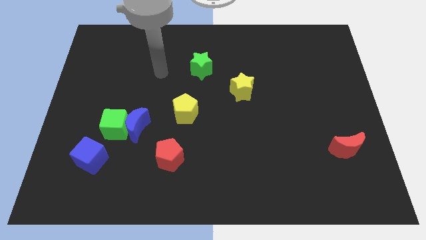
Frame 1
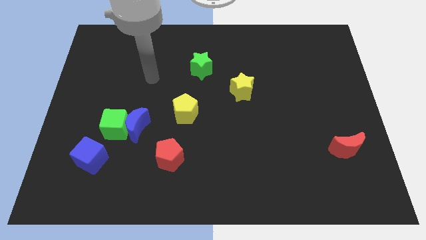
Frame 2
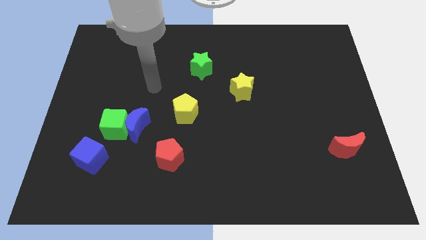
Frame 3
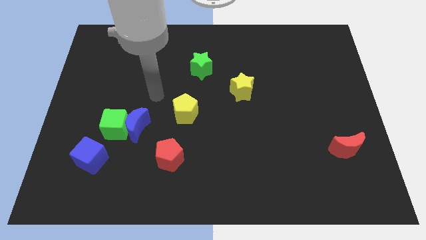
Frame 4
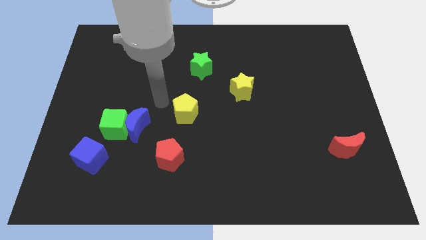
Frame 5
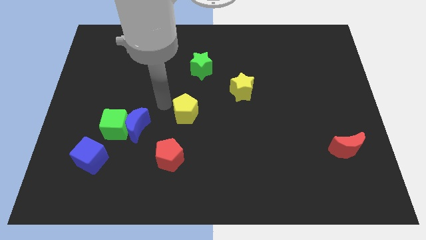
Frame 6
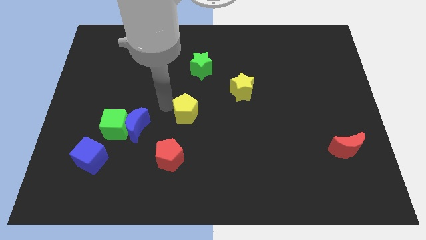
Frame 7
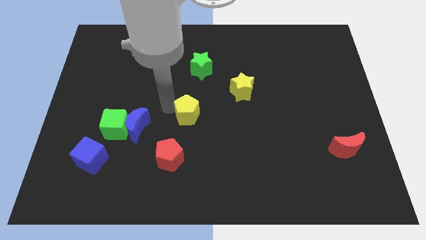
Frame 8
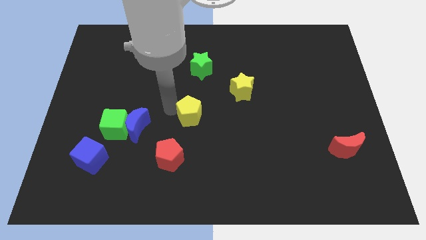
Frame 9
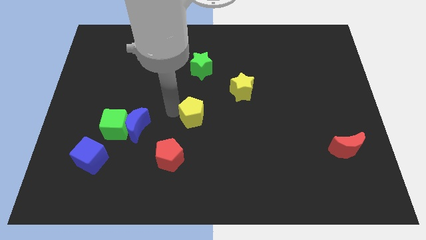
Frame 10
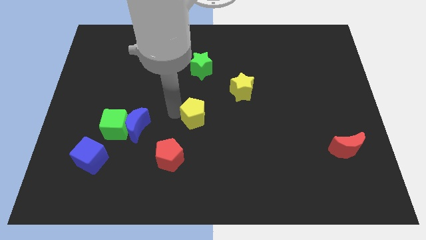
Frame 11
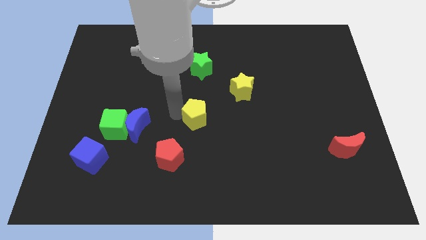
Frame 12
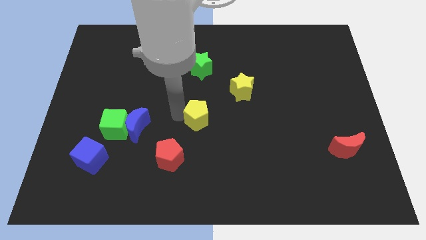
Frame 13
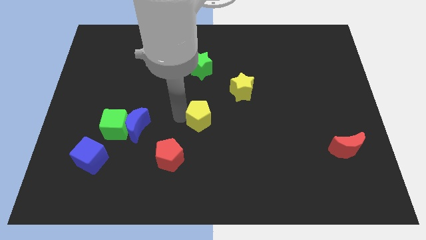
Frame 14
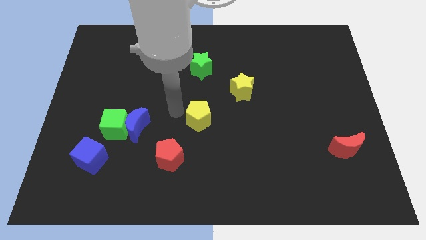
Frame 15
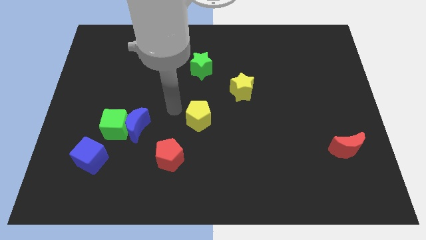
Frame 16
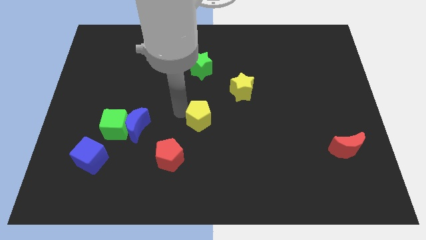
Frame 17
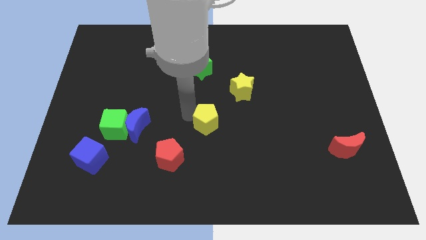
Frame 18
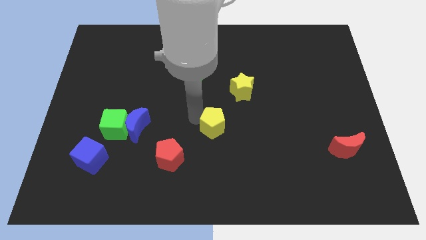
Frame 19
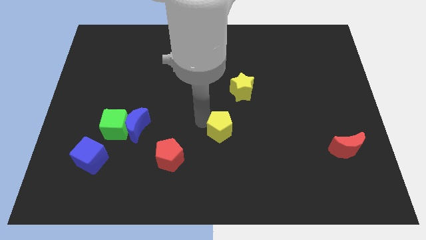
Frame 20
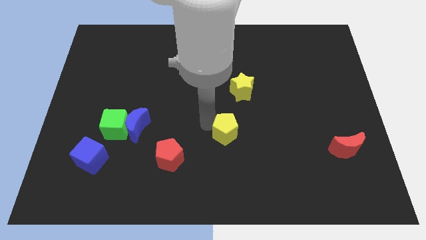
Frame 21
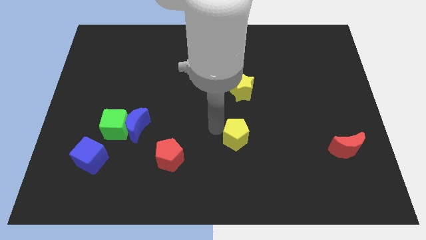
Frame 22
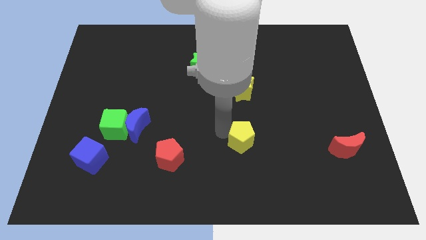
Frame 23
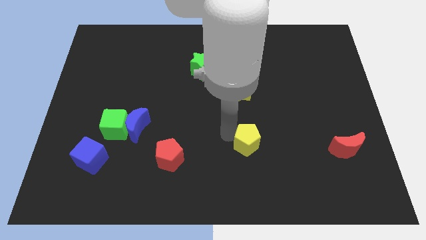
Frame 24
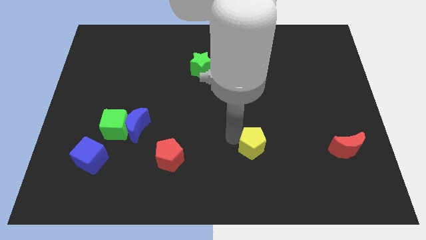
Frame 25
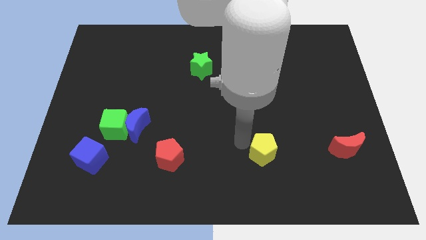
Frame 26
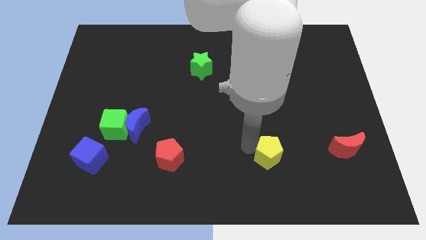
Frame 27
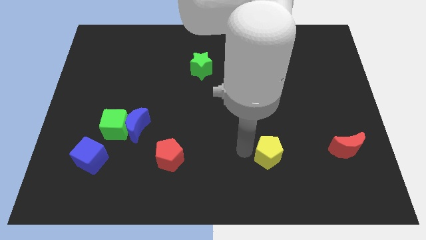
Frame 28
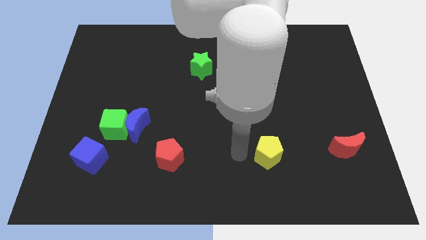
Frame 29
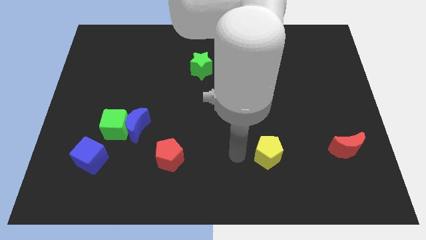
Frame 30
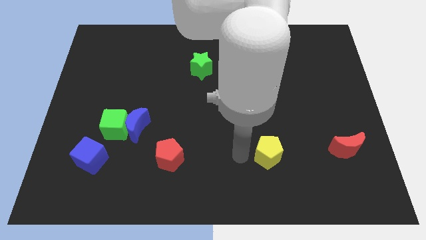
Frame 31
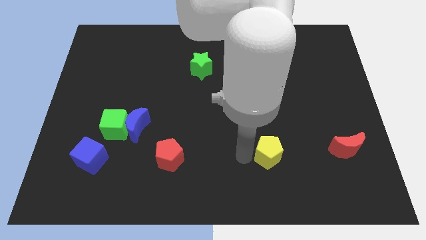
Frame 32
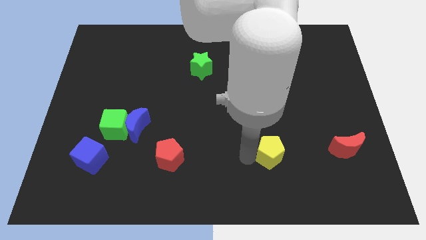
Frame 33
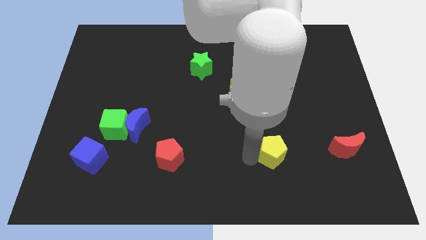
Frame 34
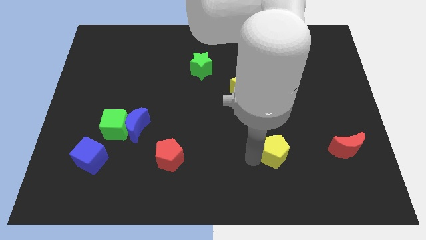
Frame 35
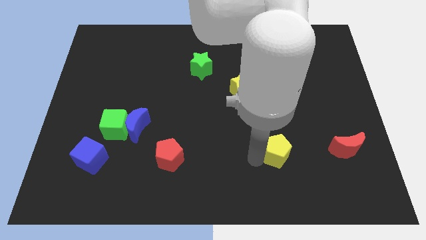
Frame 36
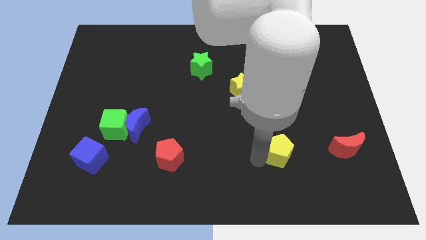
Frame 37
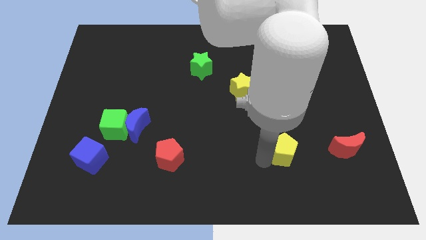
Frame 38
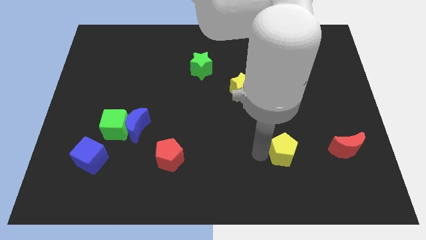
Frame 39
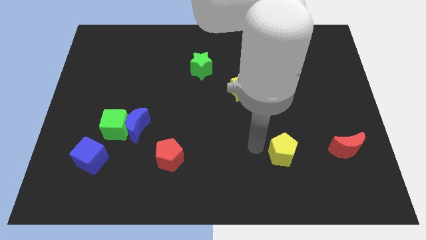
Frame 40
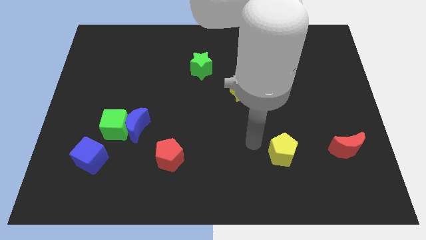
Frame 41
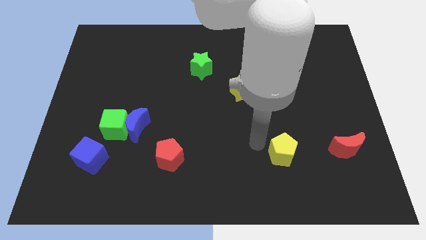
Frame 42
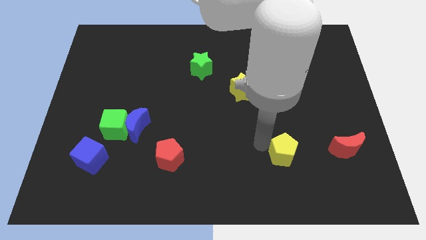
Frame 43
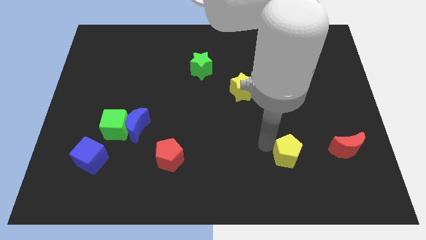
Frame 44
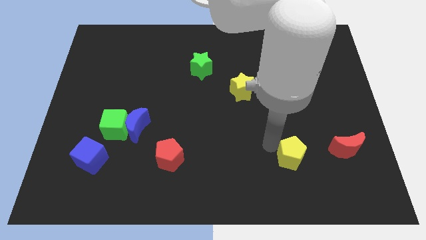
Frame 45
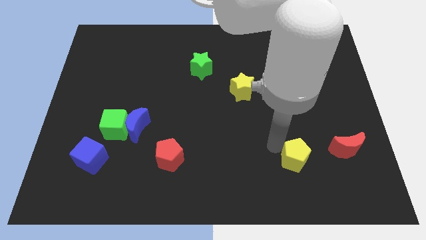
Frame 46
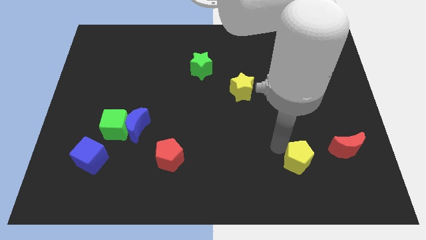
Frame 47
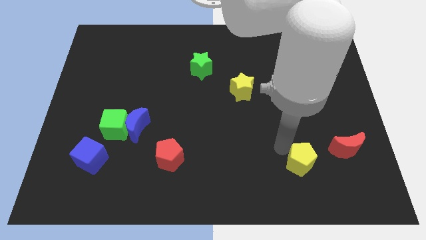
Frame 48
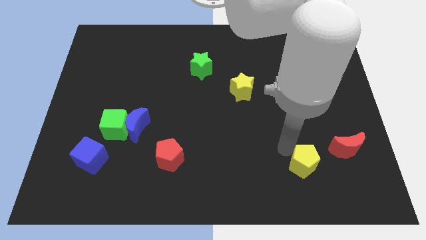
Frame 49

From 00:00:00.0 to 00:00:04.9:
move the yellow pentagon to the bottom left of the red moon

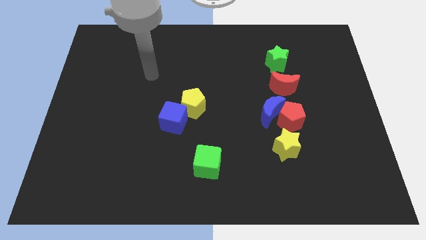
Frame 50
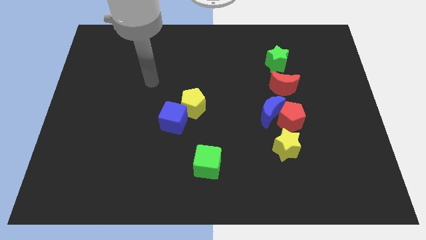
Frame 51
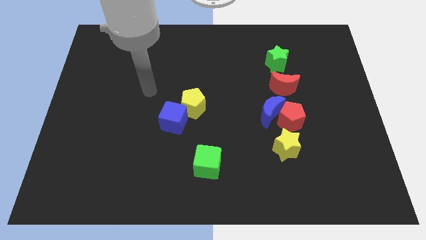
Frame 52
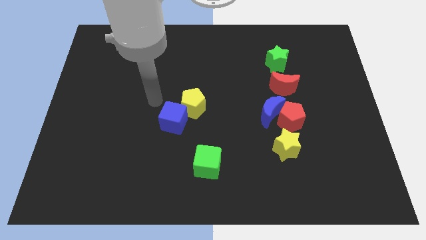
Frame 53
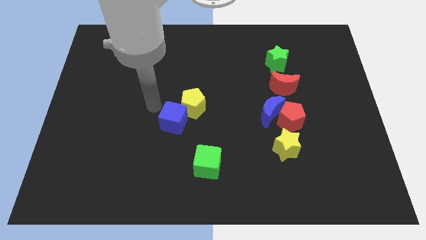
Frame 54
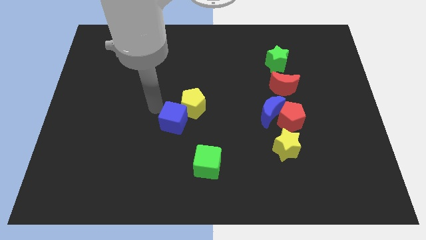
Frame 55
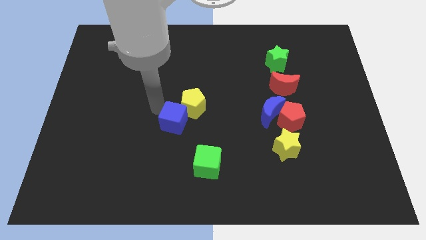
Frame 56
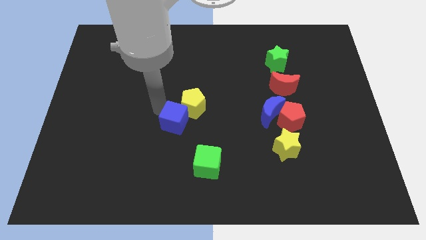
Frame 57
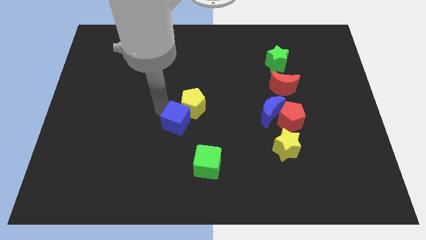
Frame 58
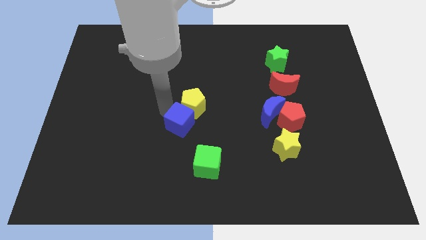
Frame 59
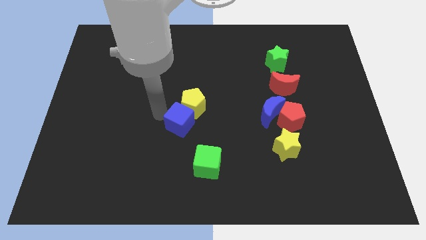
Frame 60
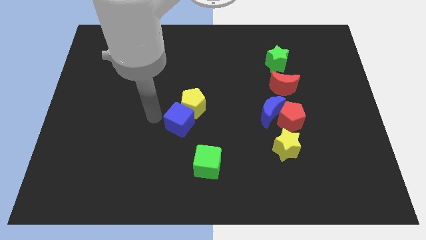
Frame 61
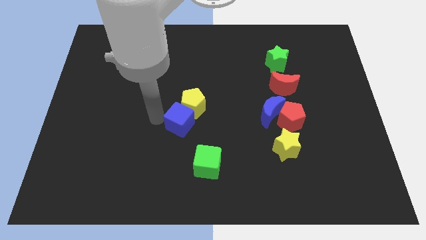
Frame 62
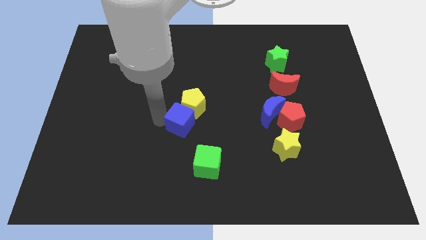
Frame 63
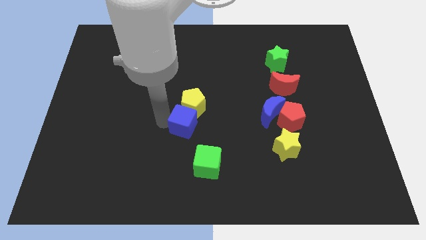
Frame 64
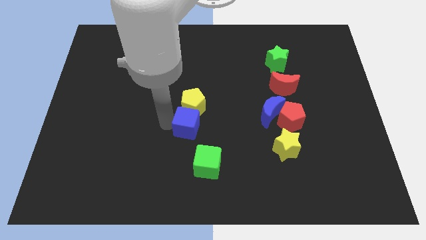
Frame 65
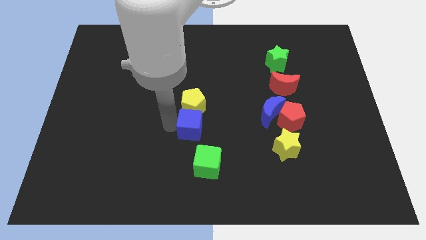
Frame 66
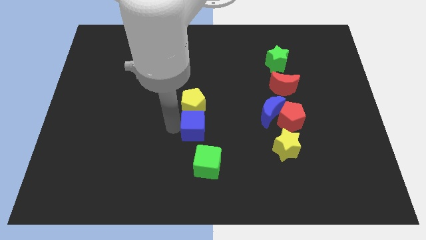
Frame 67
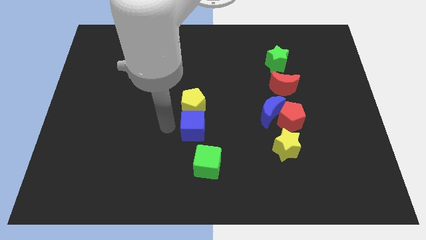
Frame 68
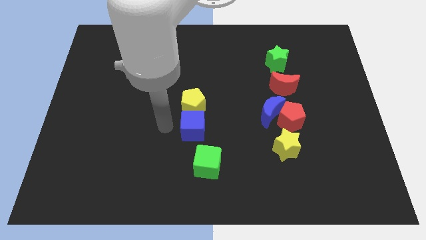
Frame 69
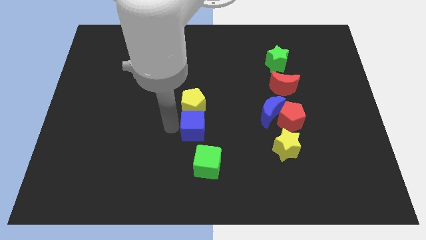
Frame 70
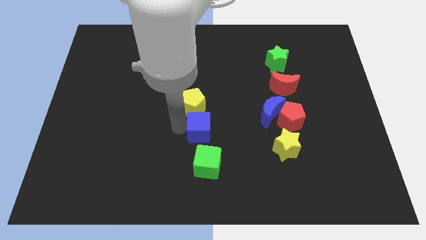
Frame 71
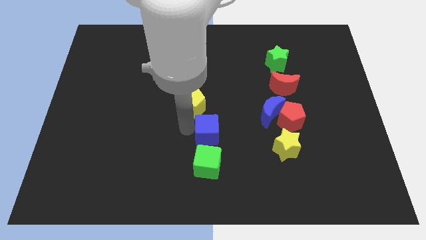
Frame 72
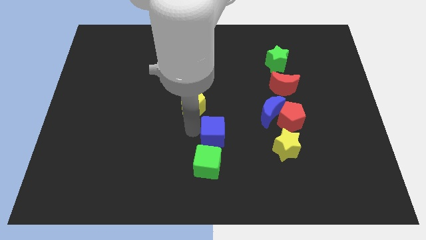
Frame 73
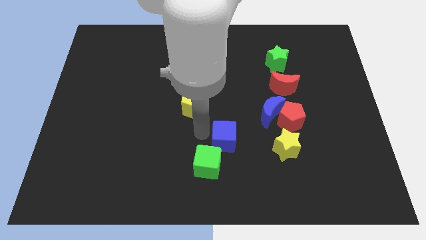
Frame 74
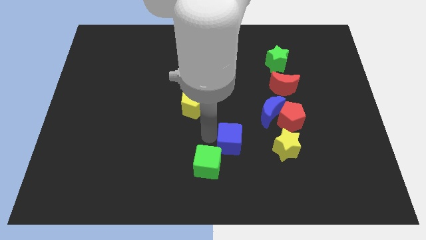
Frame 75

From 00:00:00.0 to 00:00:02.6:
put the blue cube diagonally down and to the left of the blue moon

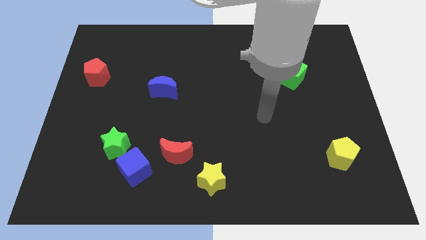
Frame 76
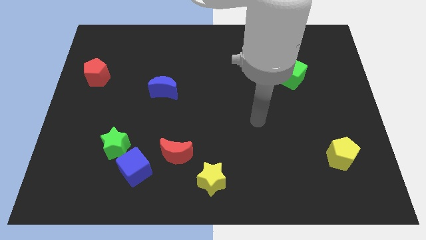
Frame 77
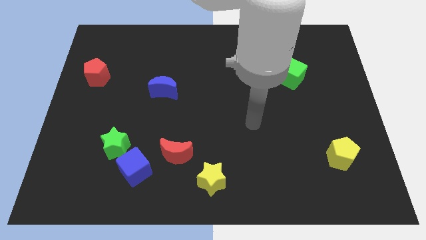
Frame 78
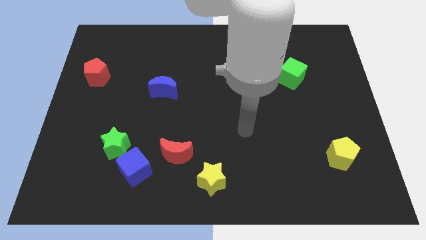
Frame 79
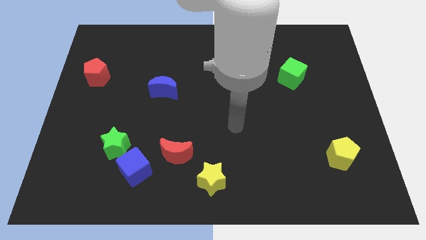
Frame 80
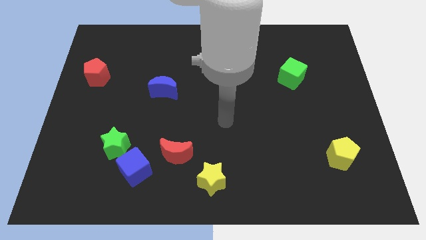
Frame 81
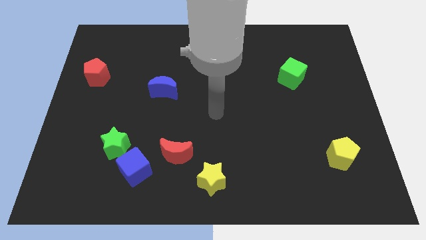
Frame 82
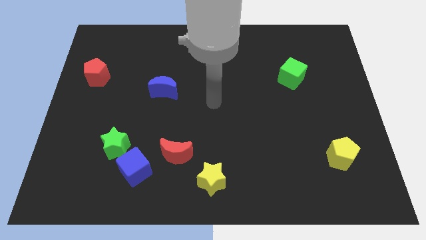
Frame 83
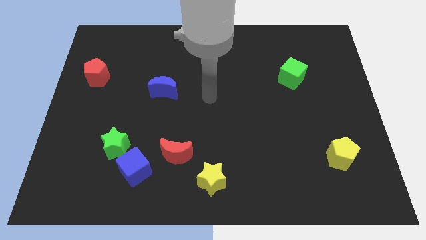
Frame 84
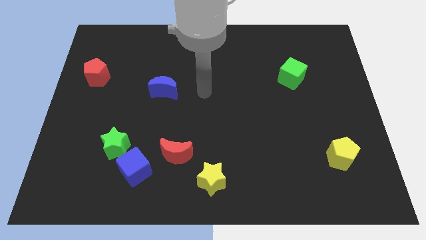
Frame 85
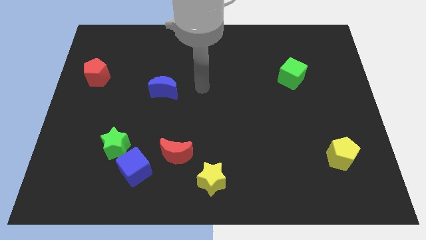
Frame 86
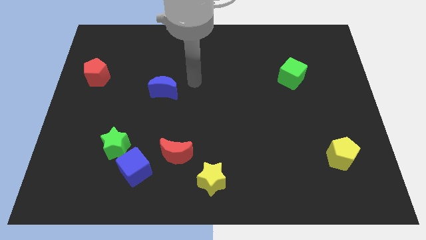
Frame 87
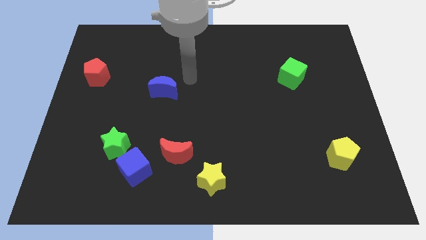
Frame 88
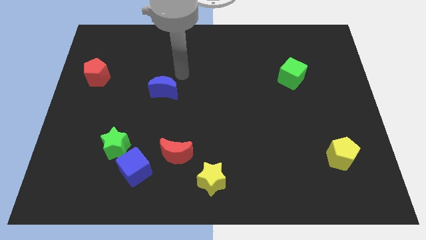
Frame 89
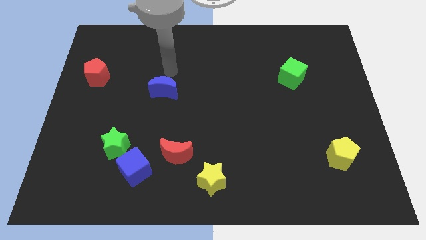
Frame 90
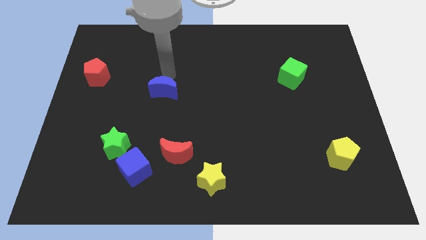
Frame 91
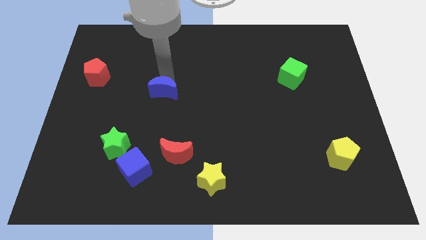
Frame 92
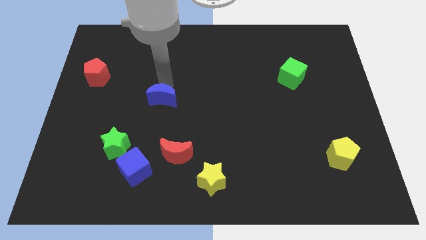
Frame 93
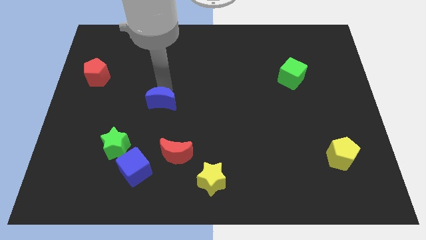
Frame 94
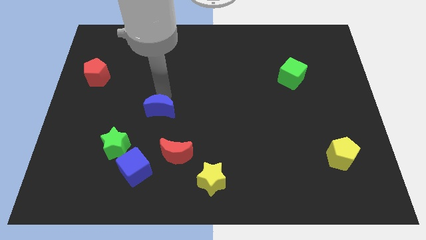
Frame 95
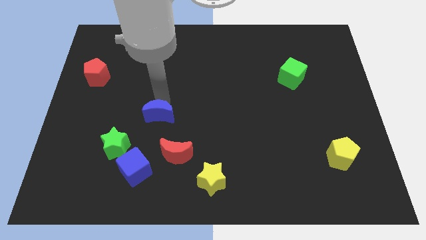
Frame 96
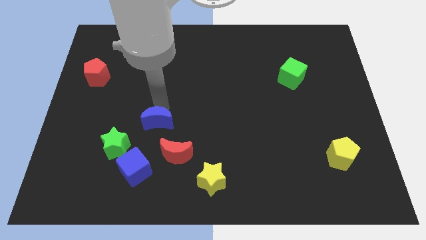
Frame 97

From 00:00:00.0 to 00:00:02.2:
put the blue moon to the top left of the red moon
